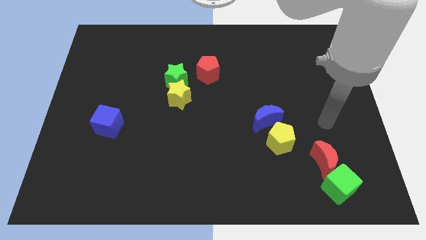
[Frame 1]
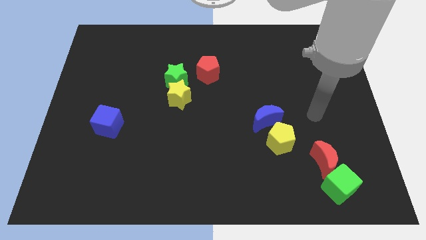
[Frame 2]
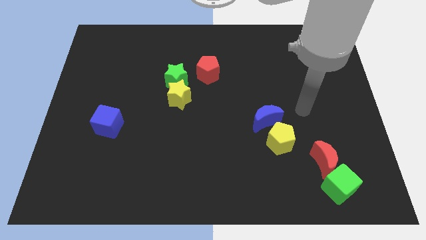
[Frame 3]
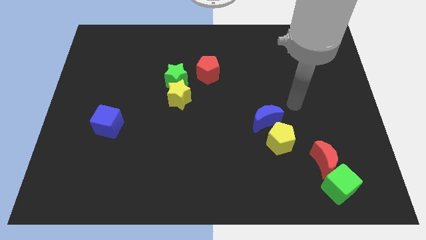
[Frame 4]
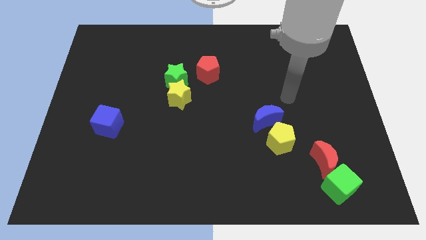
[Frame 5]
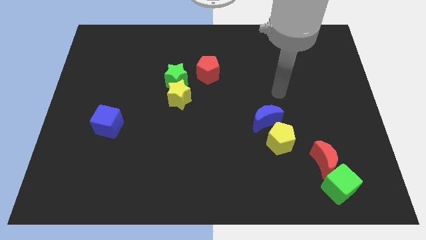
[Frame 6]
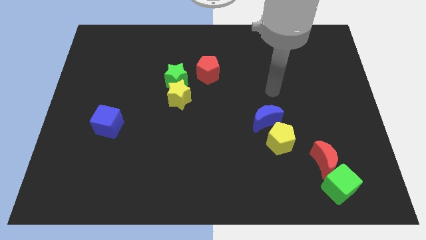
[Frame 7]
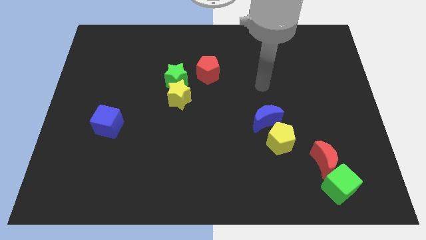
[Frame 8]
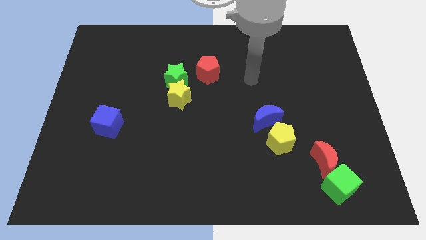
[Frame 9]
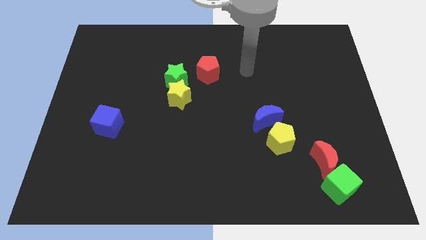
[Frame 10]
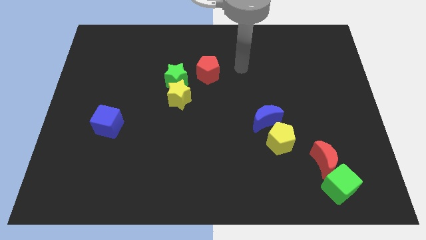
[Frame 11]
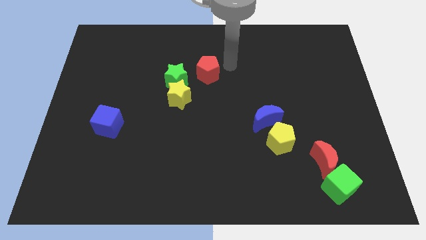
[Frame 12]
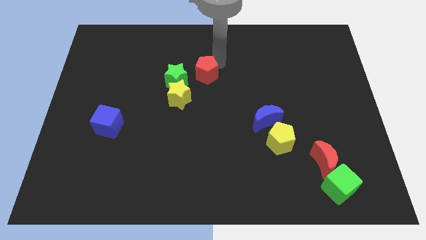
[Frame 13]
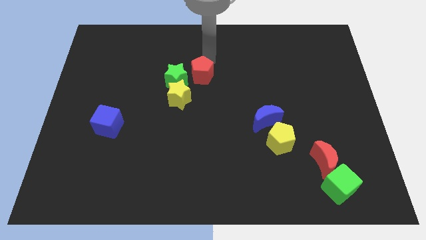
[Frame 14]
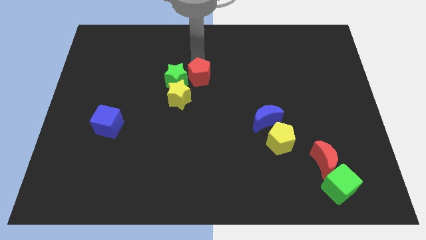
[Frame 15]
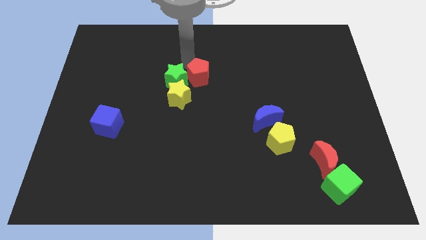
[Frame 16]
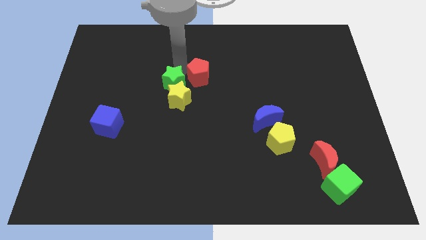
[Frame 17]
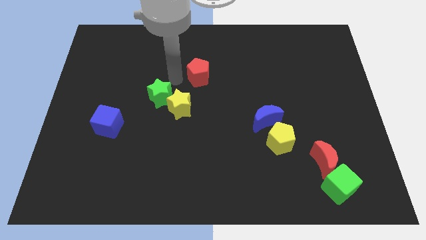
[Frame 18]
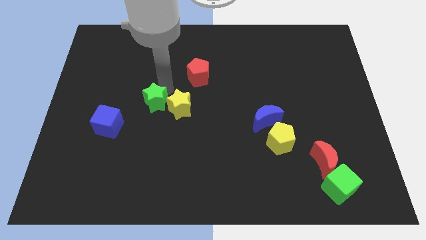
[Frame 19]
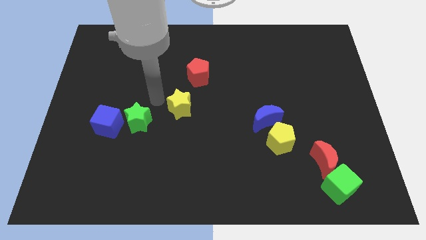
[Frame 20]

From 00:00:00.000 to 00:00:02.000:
move the yellow star away from the green star

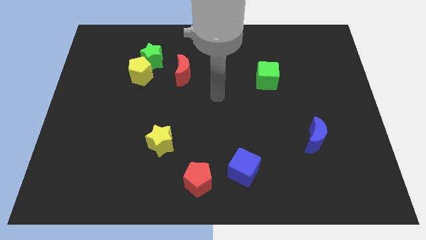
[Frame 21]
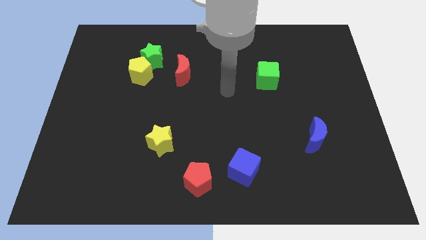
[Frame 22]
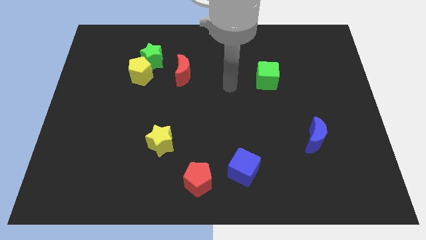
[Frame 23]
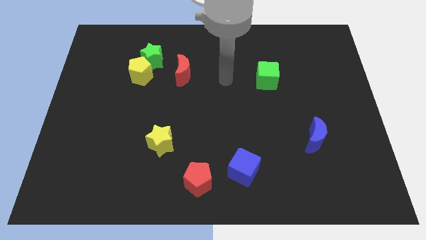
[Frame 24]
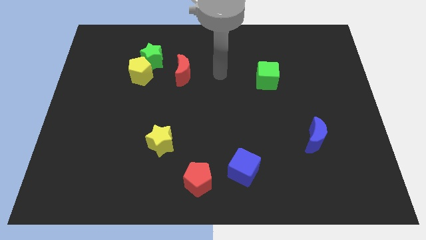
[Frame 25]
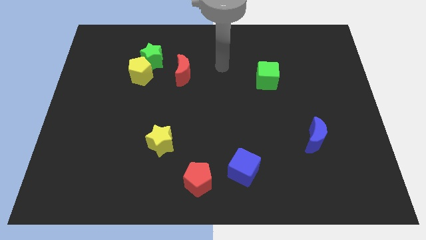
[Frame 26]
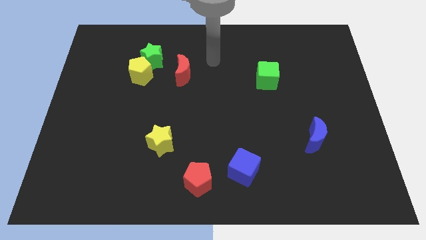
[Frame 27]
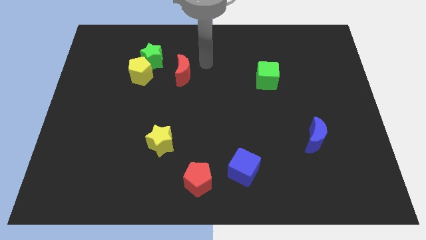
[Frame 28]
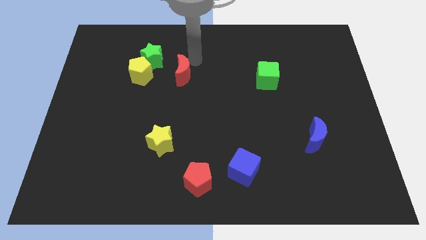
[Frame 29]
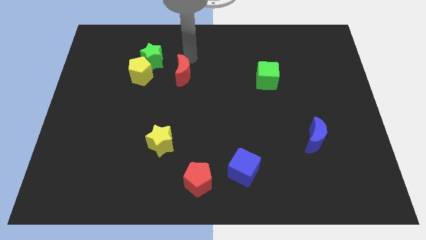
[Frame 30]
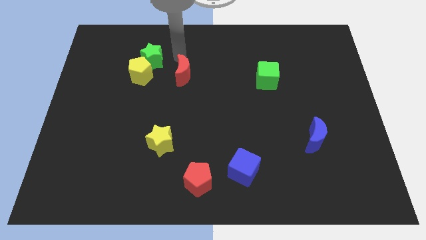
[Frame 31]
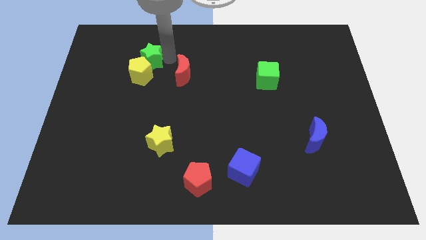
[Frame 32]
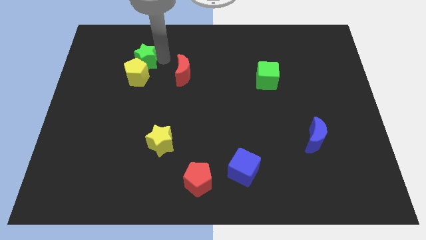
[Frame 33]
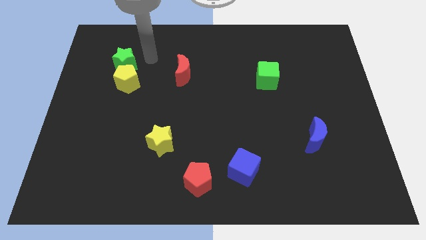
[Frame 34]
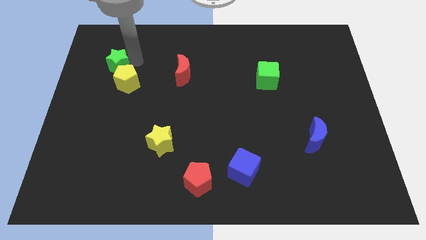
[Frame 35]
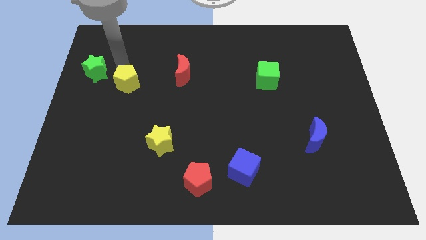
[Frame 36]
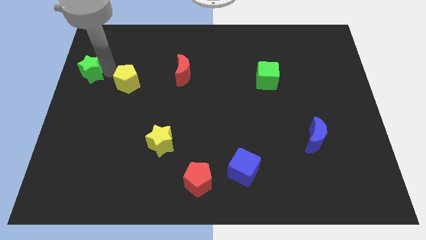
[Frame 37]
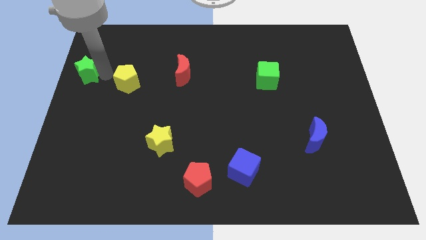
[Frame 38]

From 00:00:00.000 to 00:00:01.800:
move the yellow pentagon away from the green star

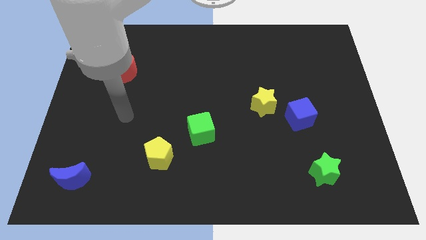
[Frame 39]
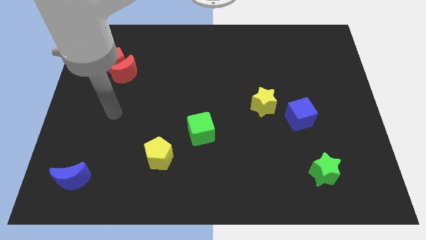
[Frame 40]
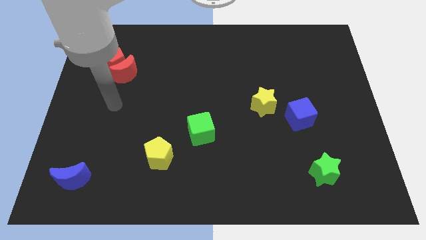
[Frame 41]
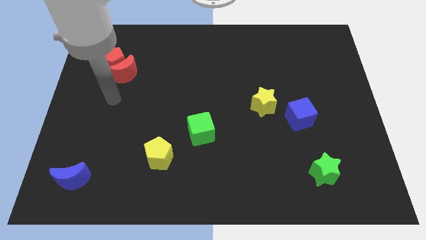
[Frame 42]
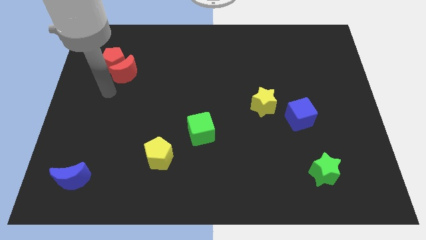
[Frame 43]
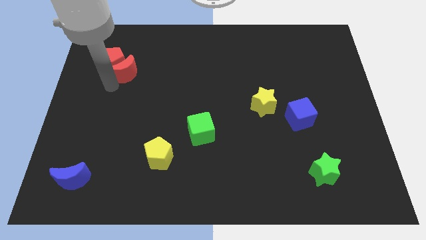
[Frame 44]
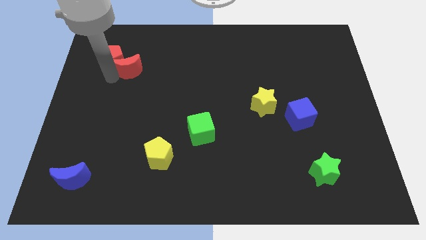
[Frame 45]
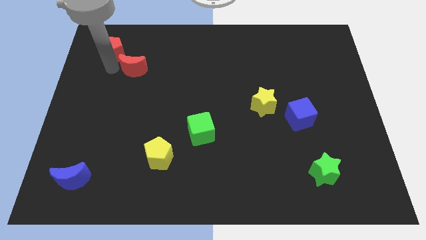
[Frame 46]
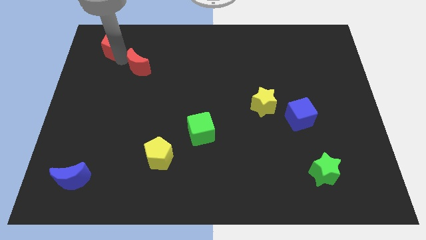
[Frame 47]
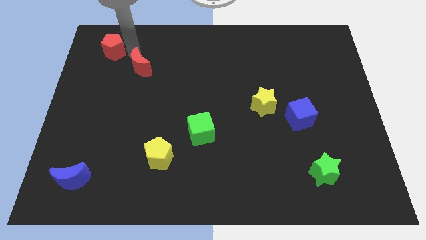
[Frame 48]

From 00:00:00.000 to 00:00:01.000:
pull the red moon apart from the red pentagon

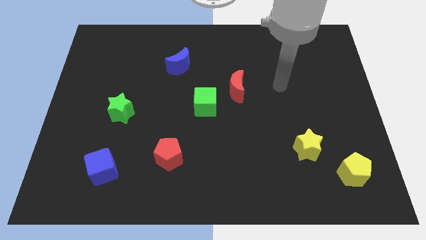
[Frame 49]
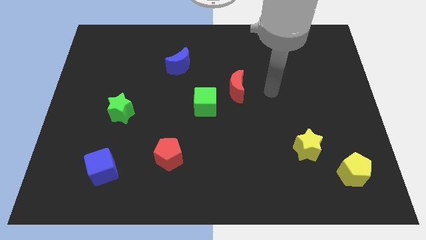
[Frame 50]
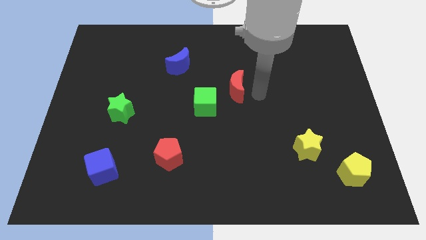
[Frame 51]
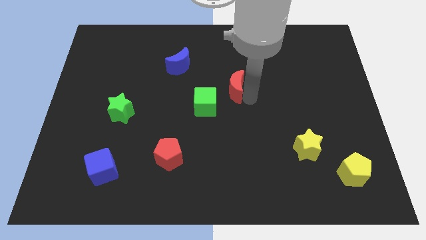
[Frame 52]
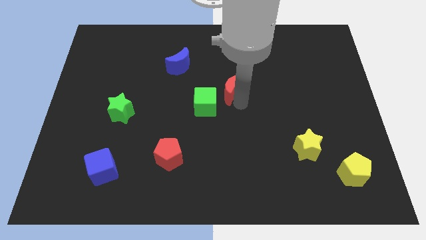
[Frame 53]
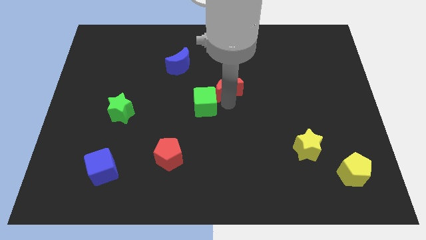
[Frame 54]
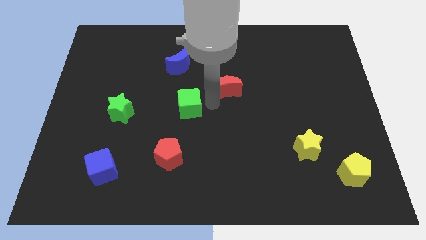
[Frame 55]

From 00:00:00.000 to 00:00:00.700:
separate the red moon from the green cube

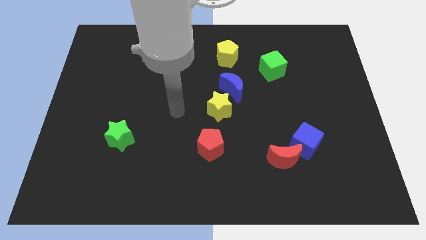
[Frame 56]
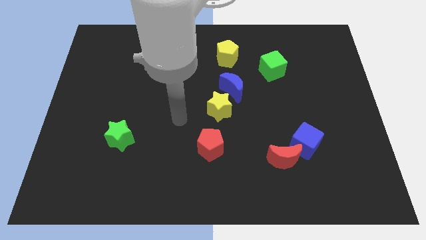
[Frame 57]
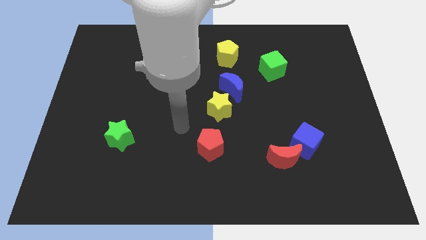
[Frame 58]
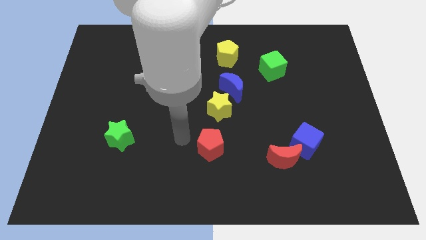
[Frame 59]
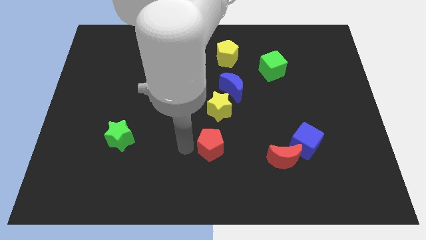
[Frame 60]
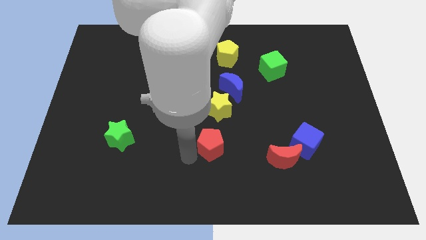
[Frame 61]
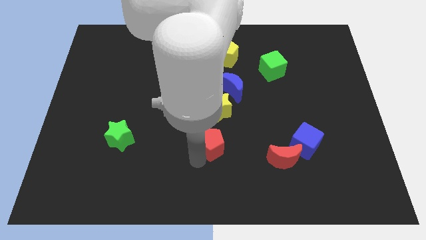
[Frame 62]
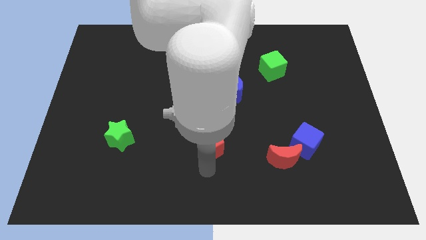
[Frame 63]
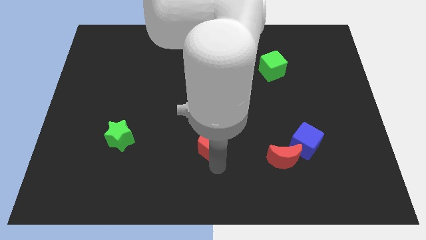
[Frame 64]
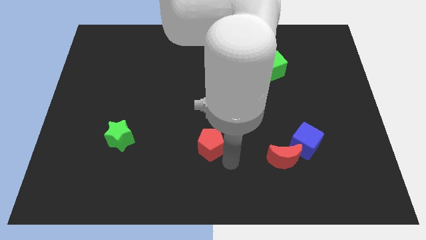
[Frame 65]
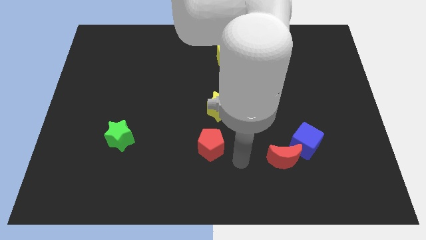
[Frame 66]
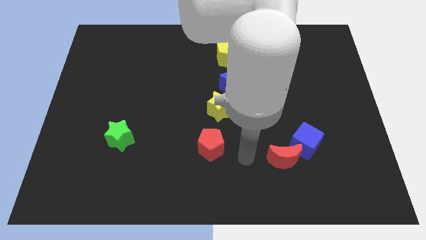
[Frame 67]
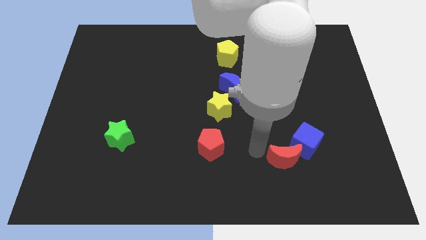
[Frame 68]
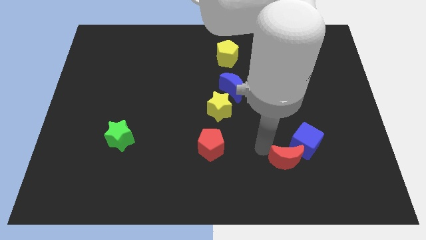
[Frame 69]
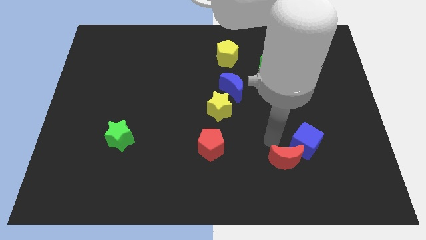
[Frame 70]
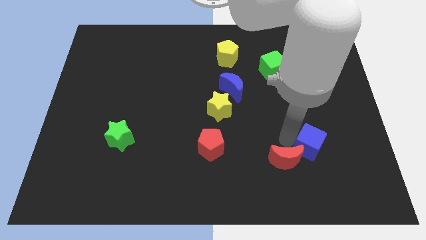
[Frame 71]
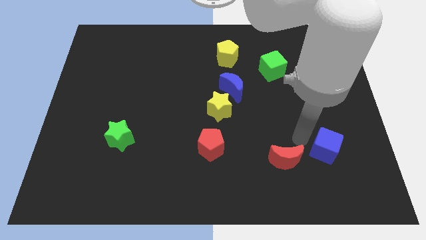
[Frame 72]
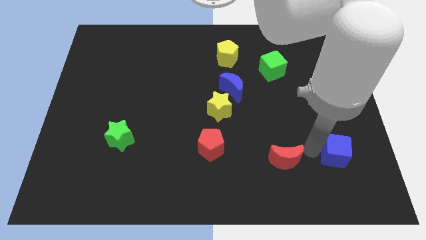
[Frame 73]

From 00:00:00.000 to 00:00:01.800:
move the red moon away from the blue cube

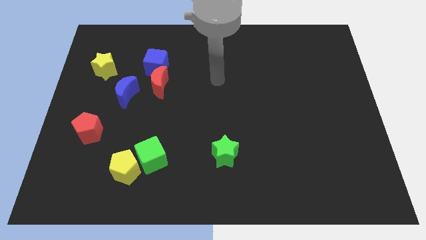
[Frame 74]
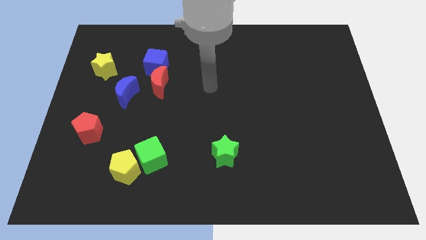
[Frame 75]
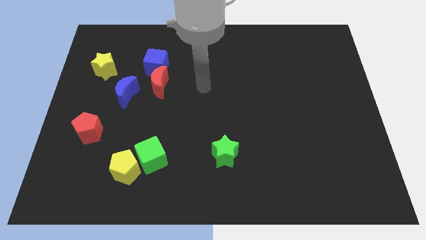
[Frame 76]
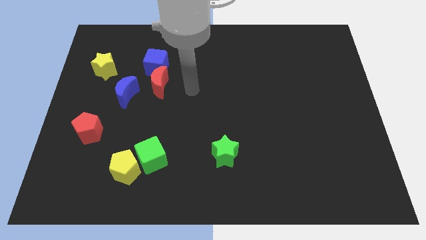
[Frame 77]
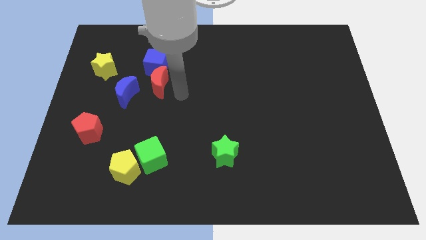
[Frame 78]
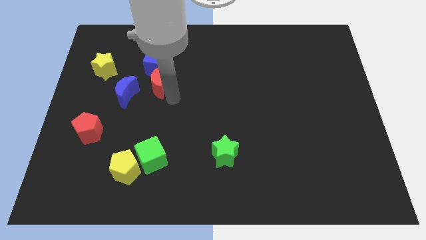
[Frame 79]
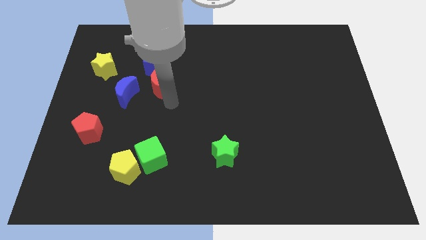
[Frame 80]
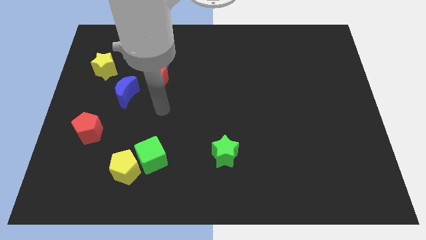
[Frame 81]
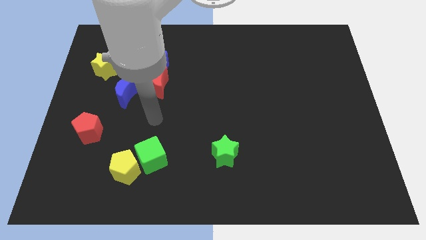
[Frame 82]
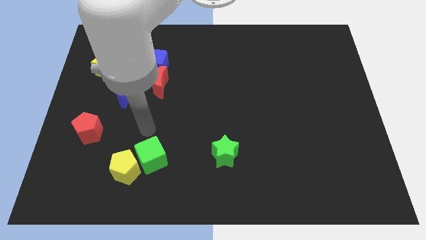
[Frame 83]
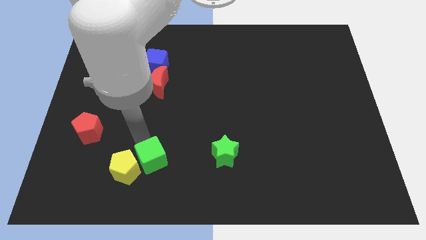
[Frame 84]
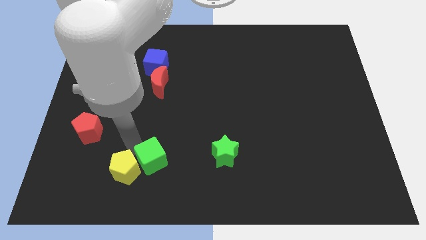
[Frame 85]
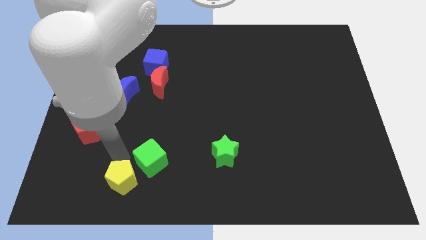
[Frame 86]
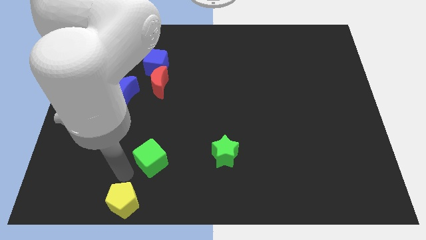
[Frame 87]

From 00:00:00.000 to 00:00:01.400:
pull the green cube apart from the yellow pentagon

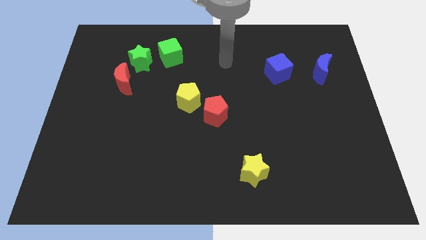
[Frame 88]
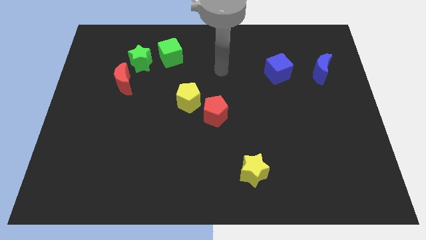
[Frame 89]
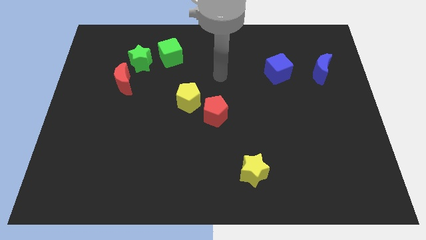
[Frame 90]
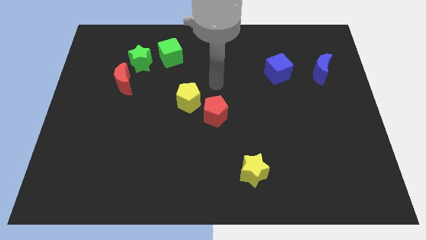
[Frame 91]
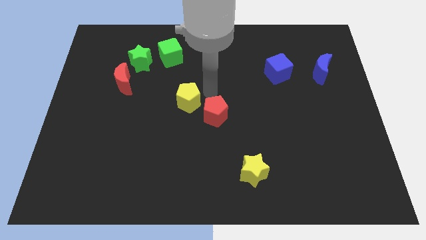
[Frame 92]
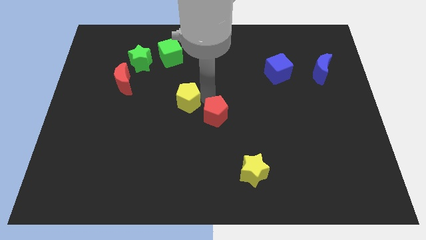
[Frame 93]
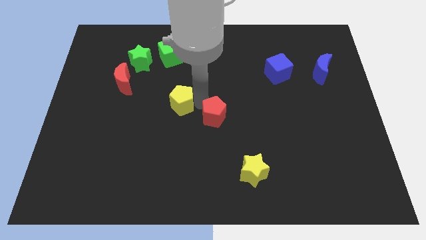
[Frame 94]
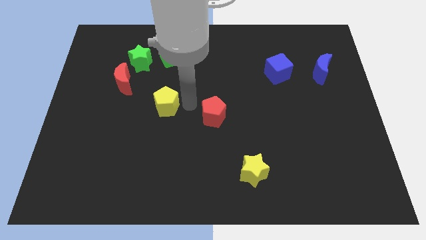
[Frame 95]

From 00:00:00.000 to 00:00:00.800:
separate the red pentagon from the yellow pentagon
